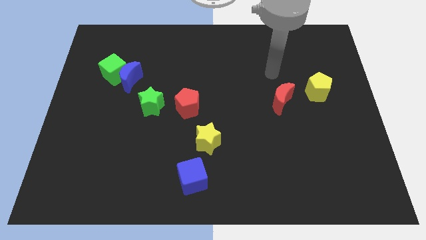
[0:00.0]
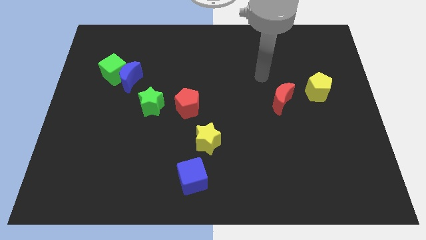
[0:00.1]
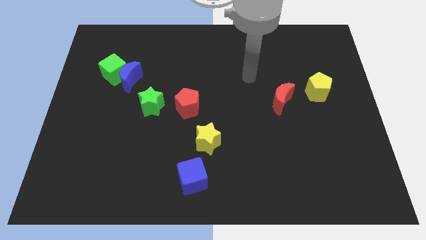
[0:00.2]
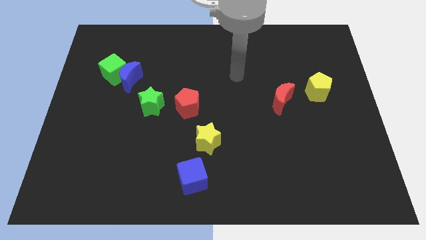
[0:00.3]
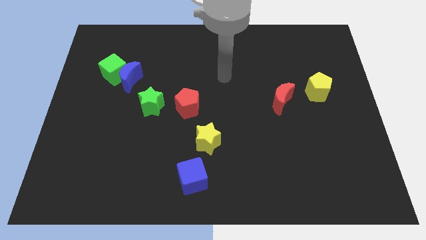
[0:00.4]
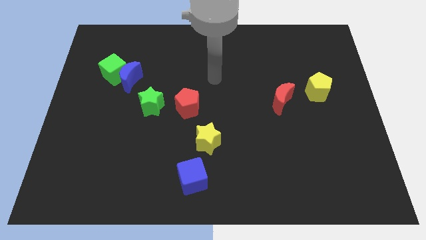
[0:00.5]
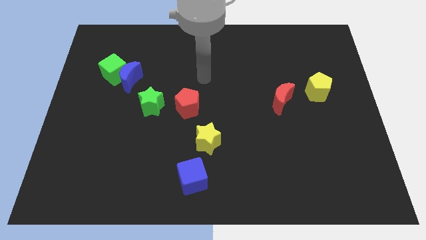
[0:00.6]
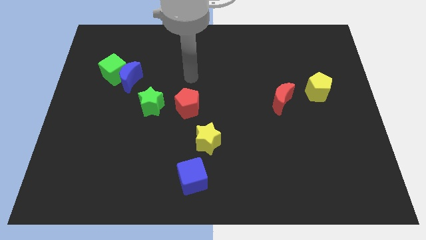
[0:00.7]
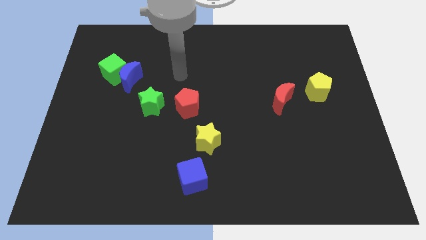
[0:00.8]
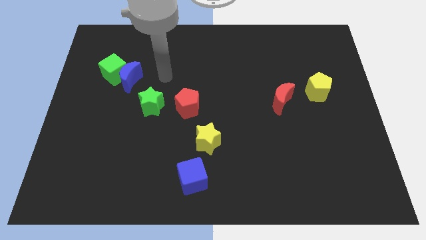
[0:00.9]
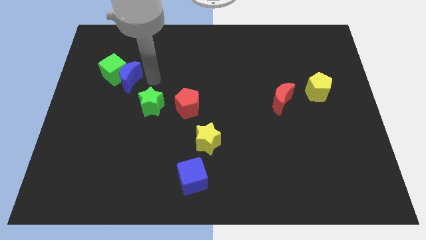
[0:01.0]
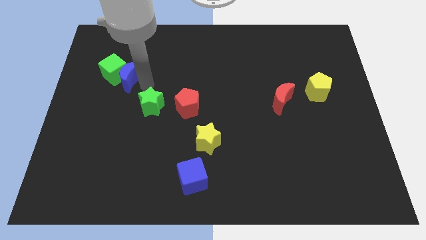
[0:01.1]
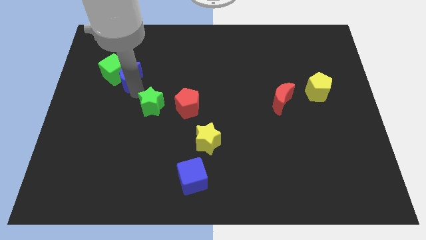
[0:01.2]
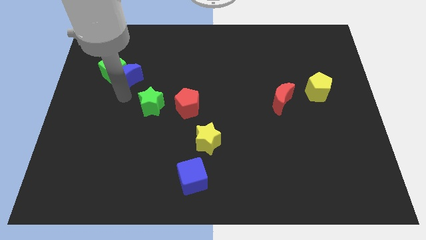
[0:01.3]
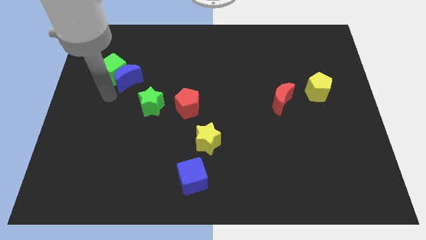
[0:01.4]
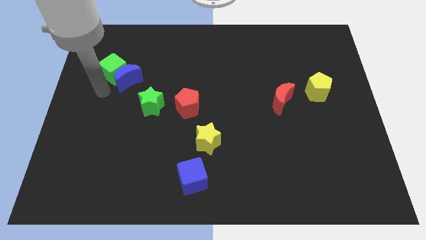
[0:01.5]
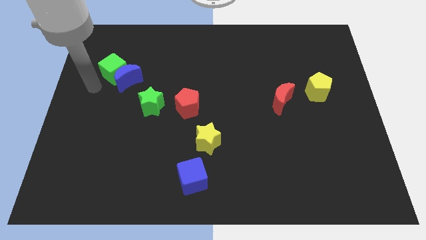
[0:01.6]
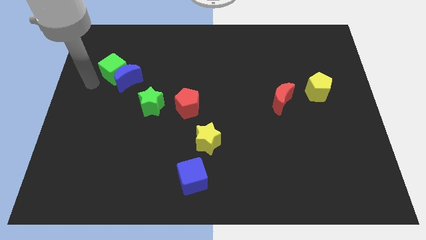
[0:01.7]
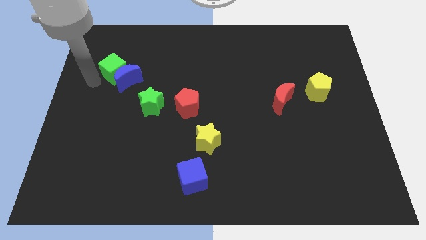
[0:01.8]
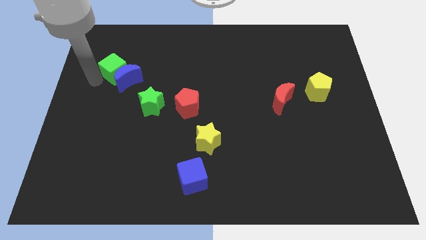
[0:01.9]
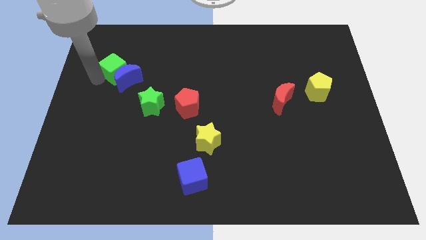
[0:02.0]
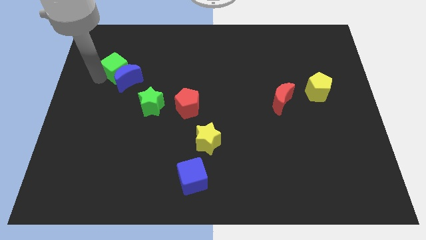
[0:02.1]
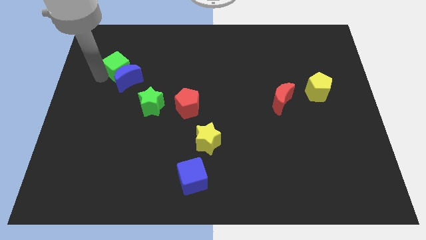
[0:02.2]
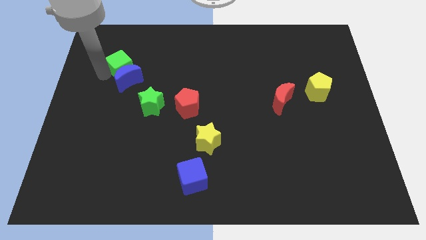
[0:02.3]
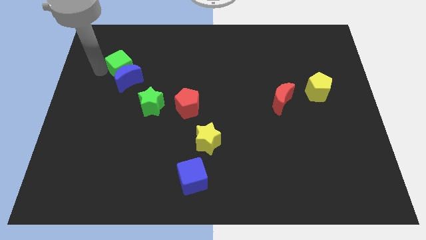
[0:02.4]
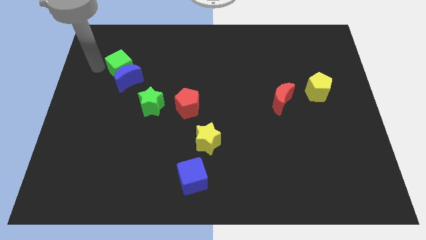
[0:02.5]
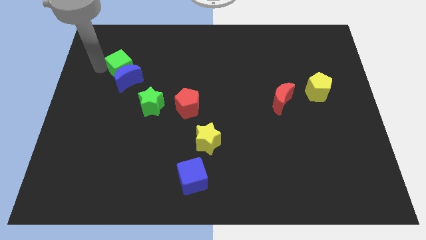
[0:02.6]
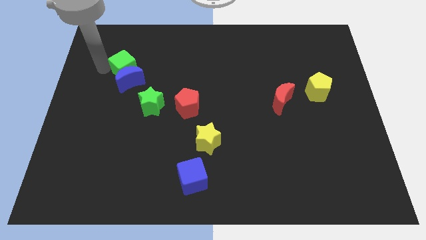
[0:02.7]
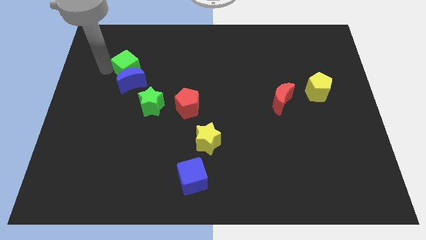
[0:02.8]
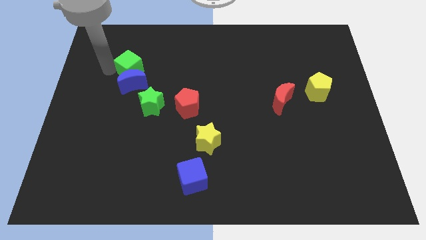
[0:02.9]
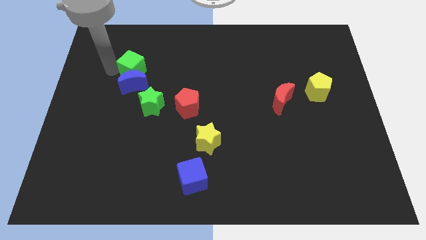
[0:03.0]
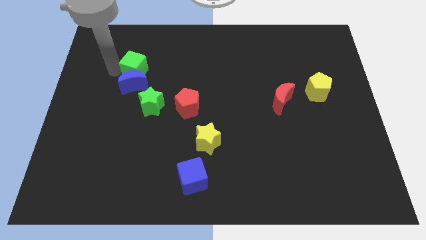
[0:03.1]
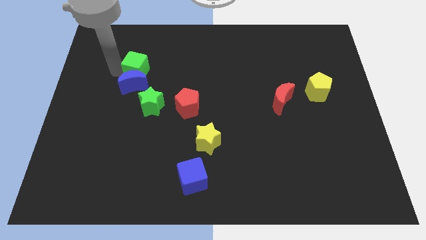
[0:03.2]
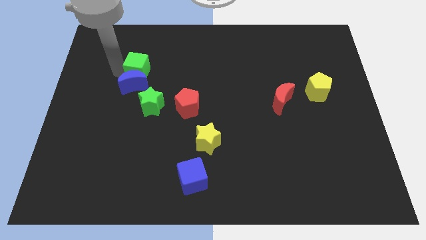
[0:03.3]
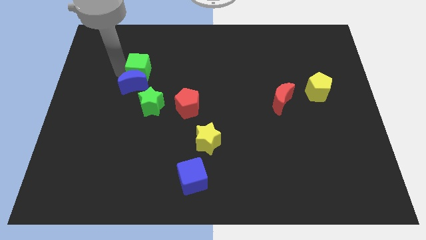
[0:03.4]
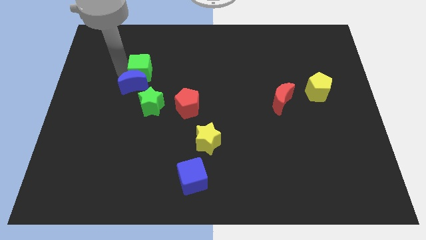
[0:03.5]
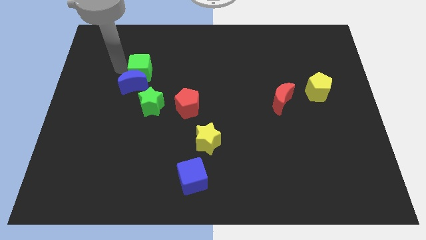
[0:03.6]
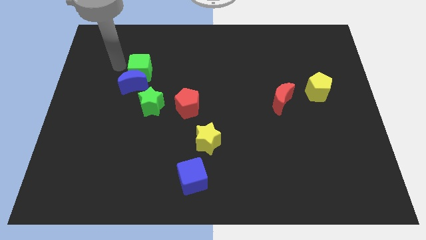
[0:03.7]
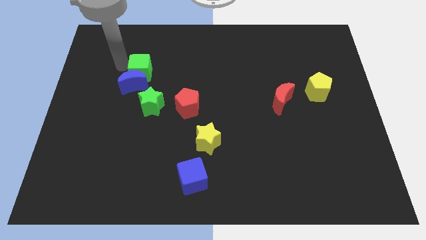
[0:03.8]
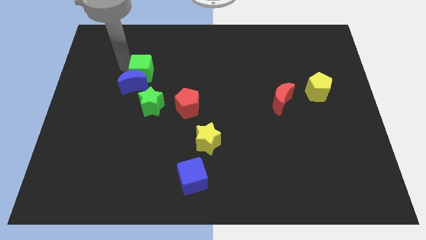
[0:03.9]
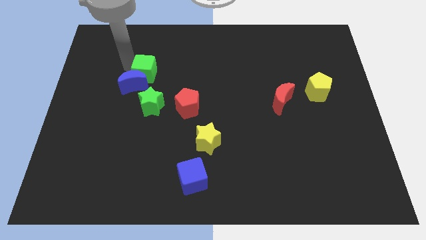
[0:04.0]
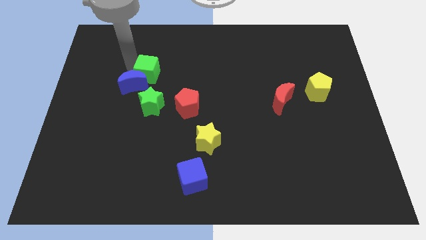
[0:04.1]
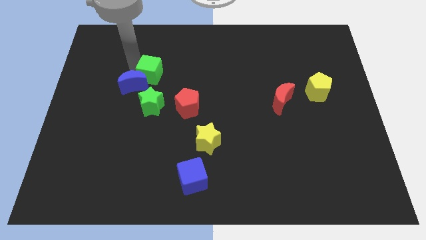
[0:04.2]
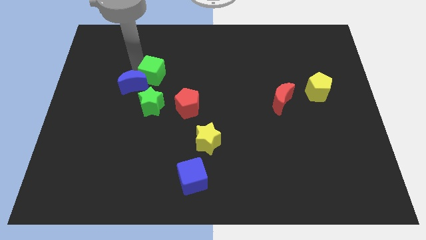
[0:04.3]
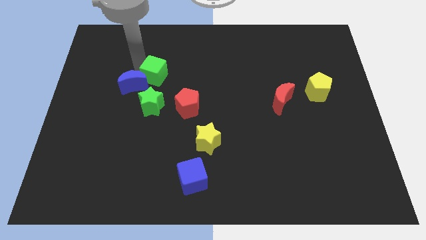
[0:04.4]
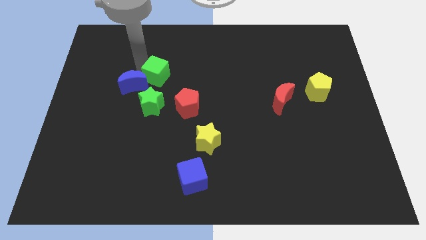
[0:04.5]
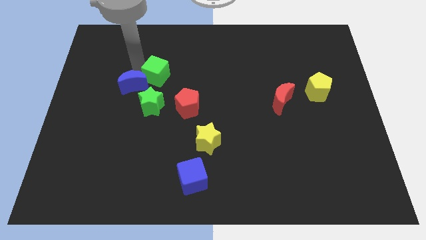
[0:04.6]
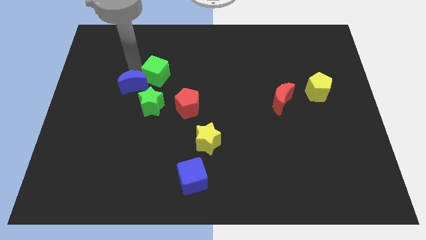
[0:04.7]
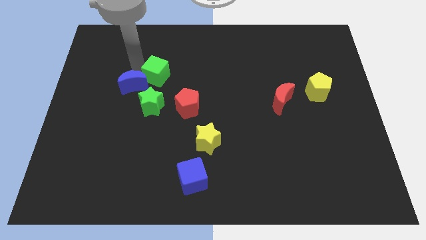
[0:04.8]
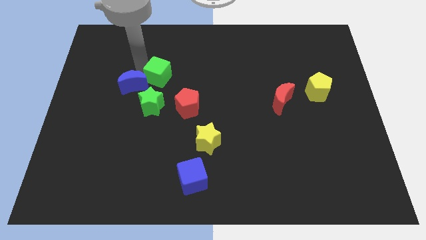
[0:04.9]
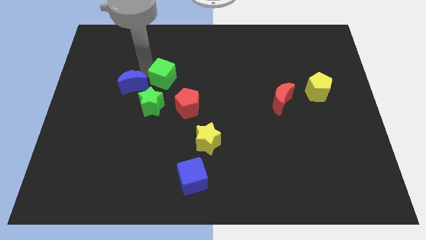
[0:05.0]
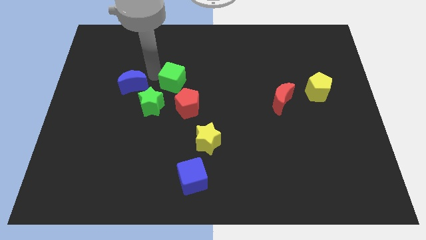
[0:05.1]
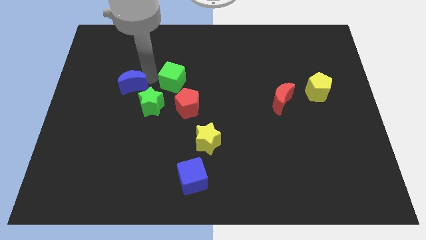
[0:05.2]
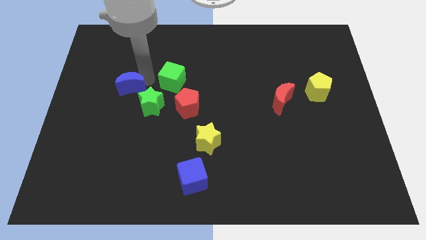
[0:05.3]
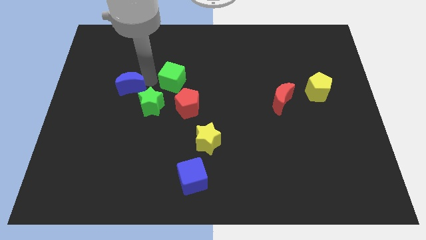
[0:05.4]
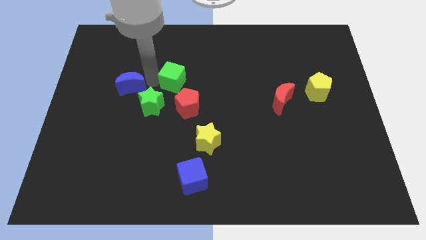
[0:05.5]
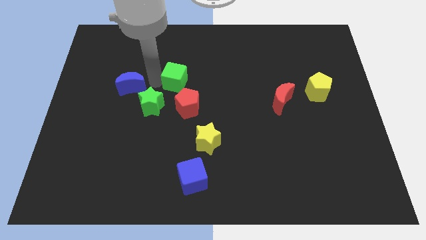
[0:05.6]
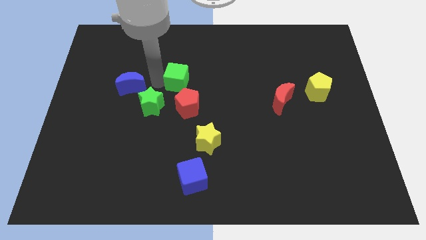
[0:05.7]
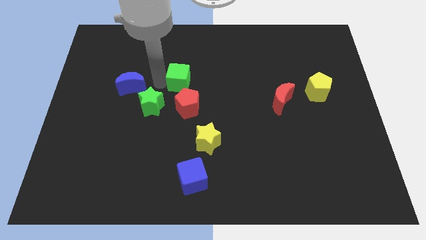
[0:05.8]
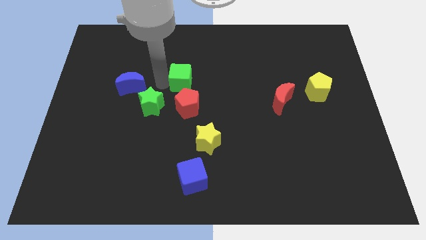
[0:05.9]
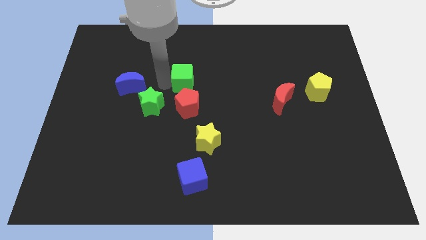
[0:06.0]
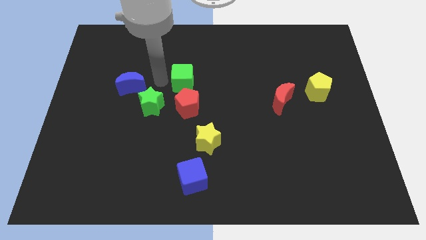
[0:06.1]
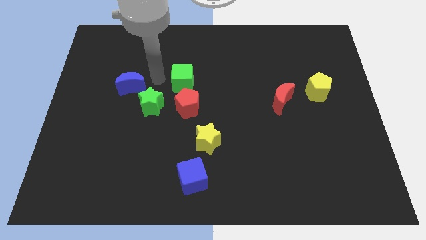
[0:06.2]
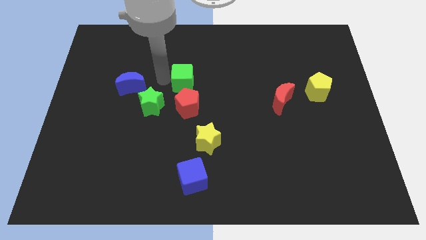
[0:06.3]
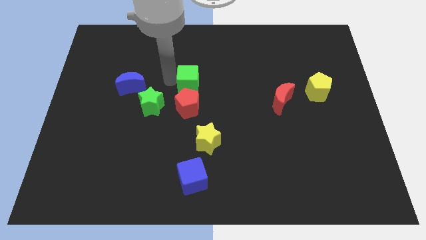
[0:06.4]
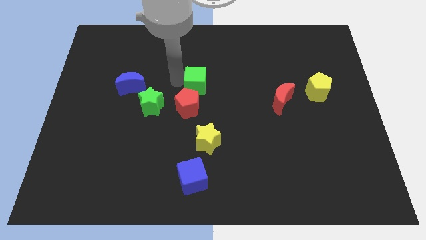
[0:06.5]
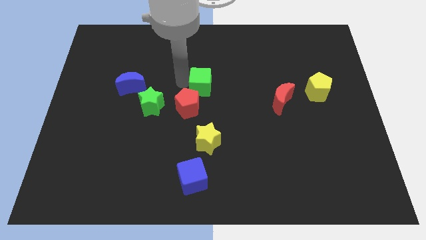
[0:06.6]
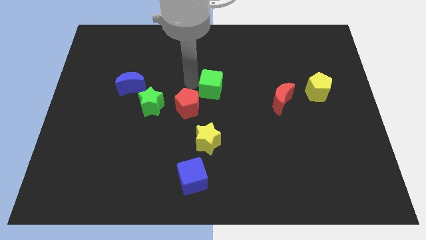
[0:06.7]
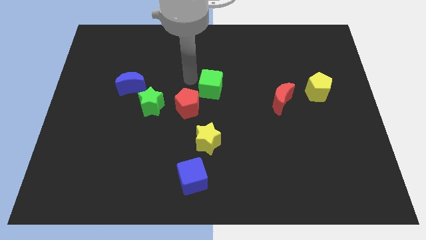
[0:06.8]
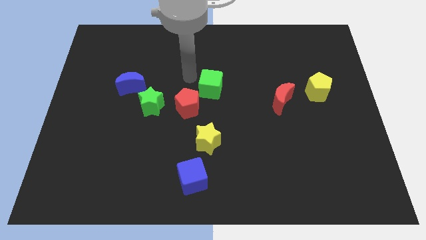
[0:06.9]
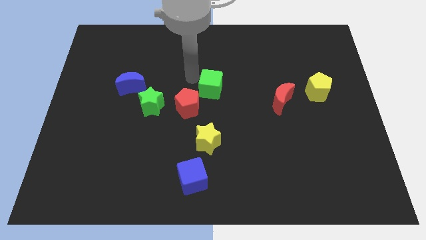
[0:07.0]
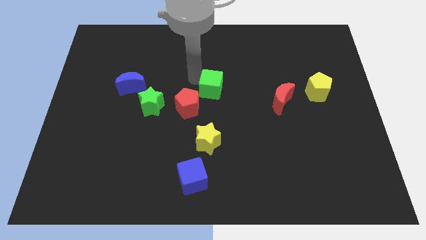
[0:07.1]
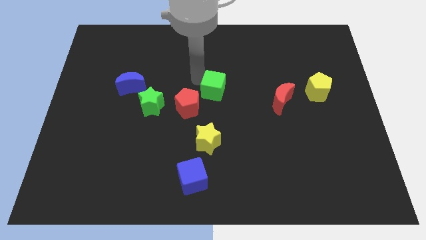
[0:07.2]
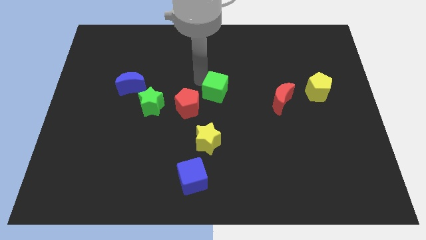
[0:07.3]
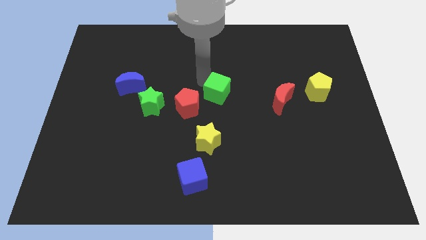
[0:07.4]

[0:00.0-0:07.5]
push the green cube to the left side of the red moon
